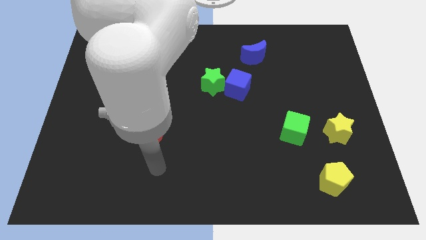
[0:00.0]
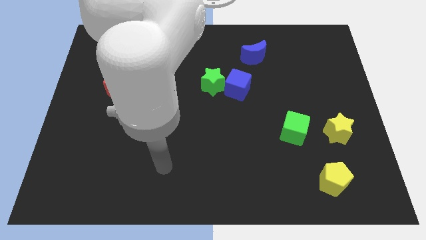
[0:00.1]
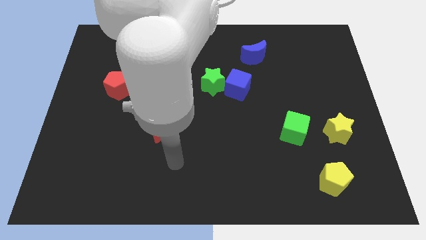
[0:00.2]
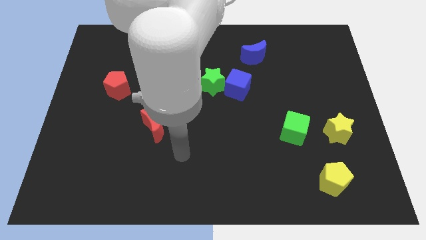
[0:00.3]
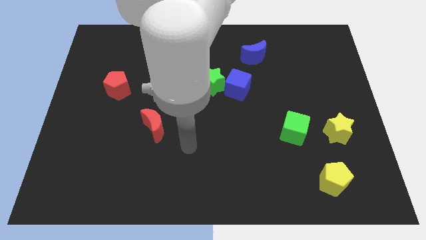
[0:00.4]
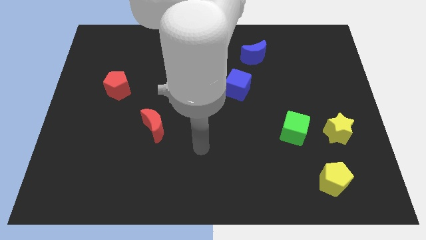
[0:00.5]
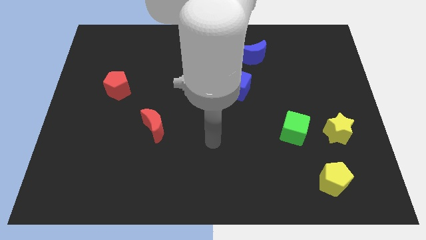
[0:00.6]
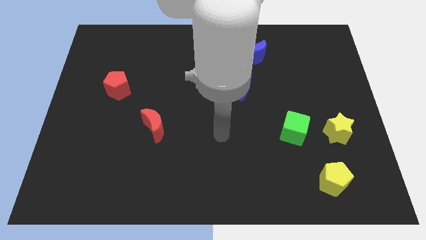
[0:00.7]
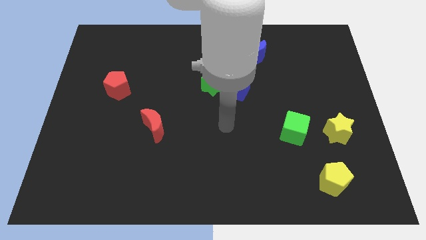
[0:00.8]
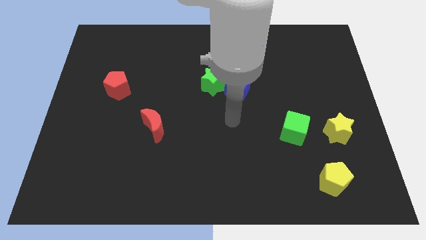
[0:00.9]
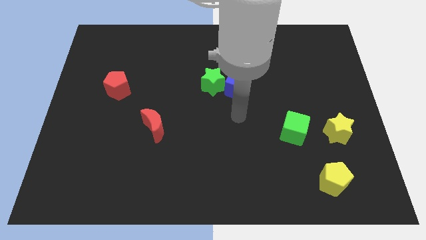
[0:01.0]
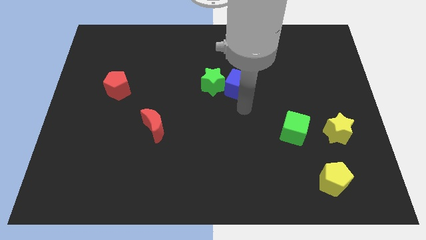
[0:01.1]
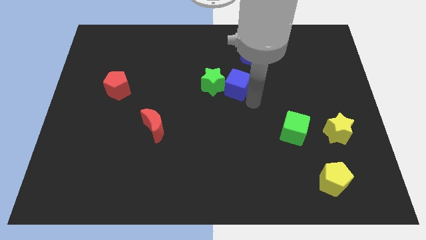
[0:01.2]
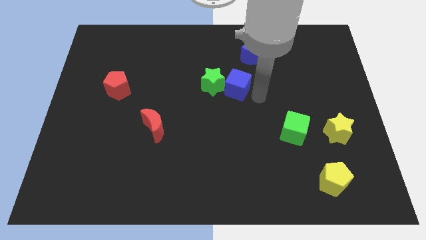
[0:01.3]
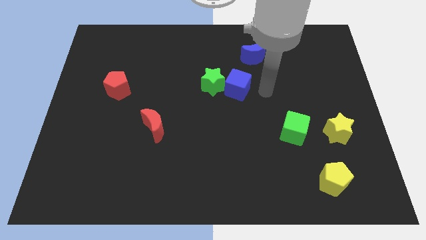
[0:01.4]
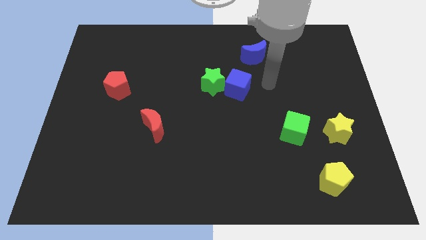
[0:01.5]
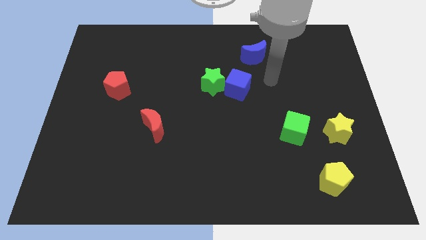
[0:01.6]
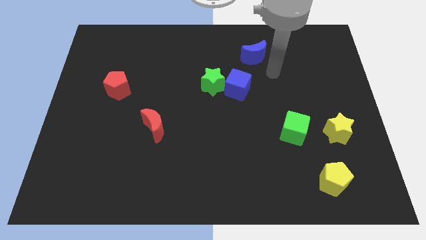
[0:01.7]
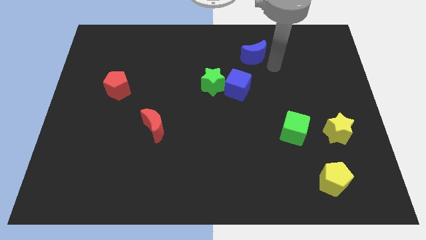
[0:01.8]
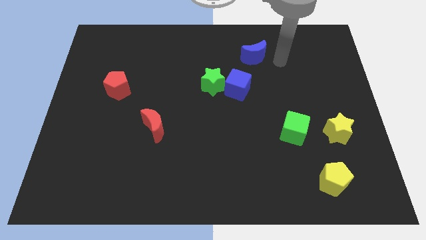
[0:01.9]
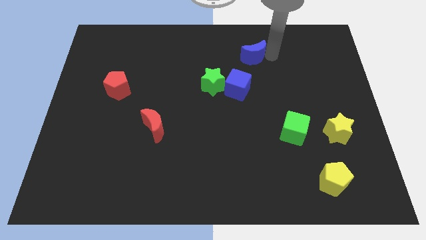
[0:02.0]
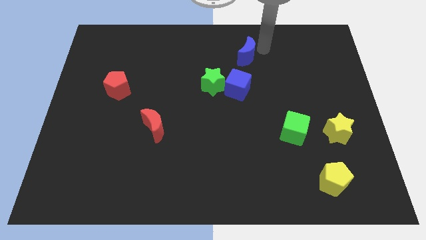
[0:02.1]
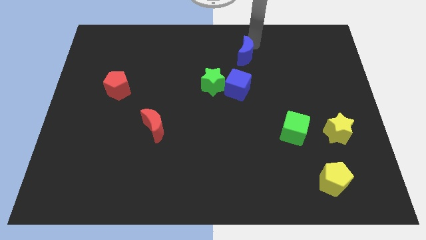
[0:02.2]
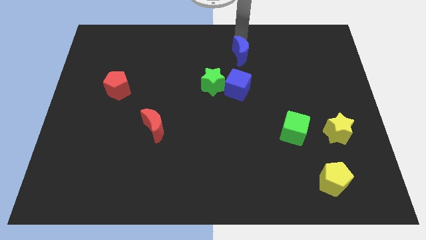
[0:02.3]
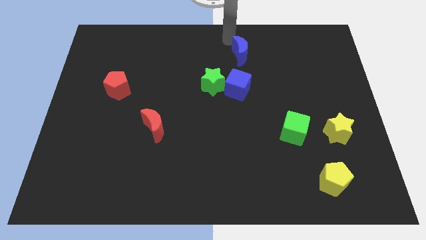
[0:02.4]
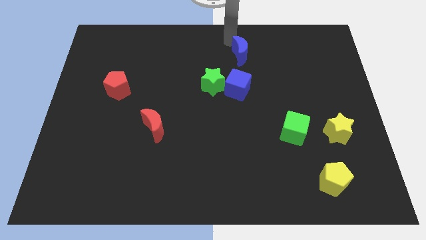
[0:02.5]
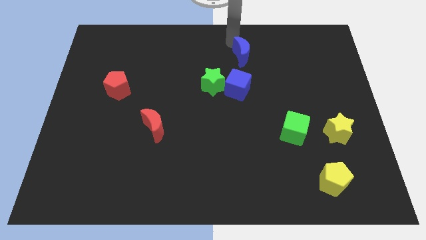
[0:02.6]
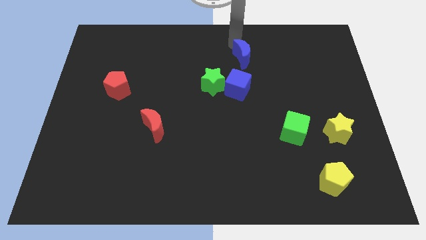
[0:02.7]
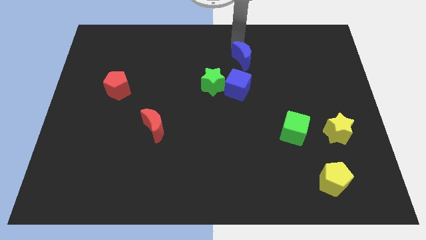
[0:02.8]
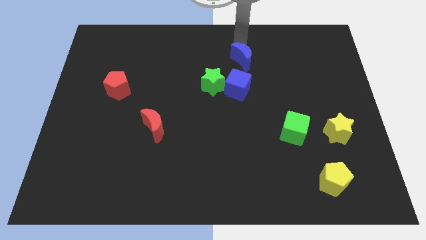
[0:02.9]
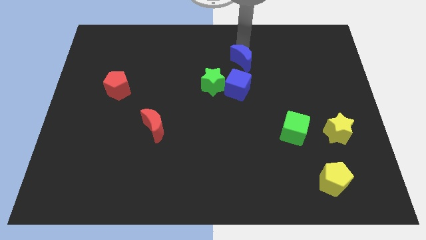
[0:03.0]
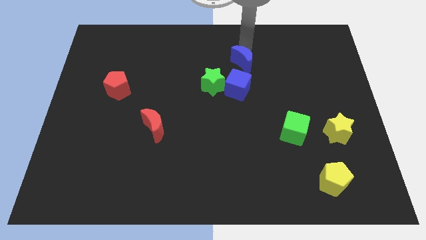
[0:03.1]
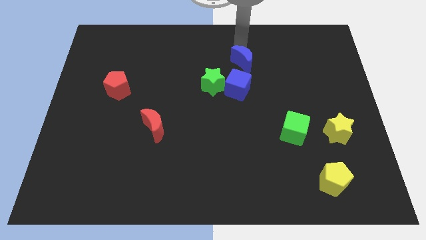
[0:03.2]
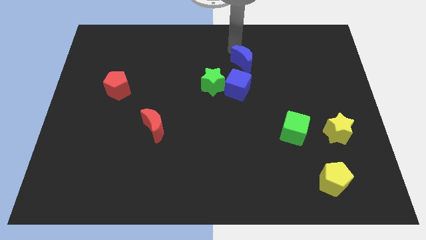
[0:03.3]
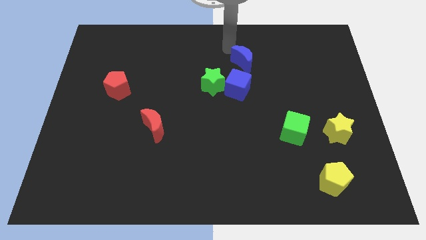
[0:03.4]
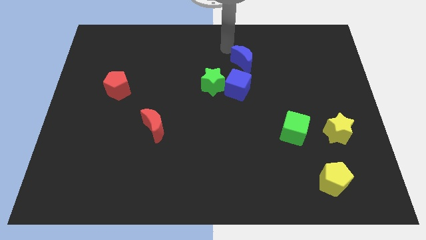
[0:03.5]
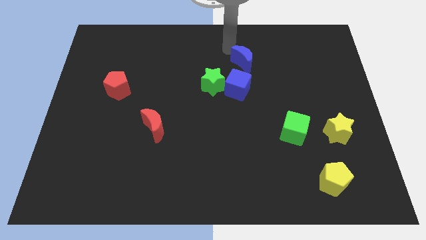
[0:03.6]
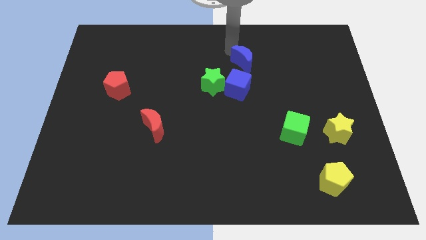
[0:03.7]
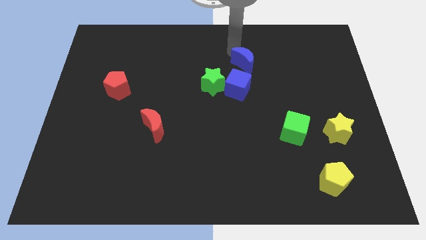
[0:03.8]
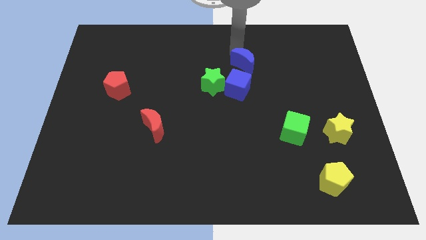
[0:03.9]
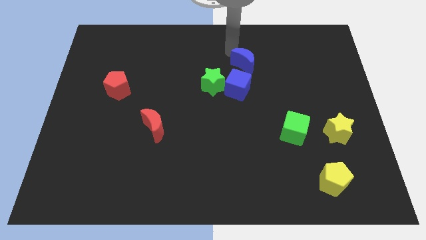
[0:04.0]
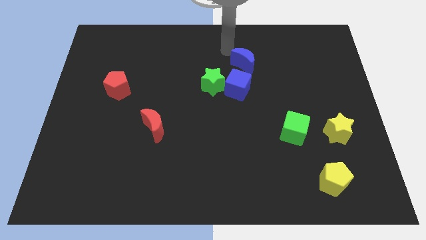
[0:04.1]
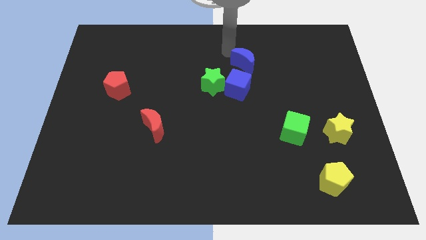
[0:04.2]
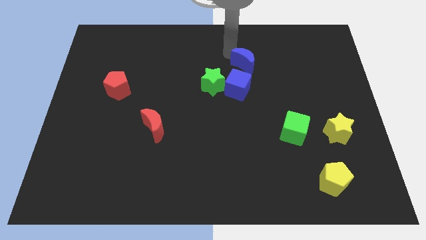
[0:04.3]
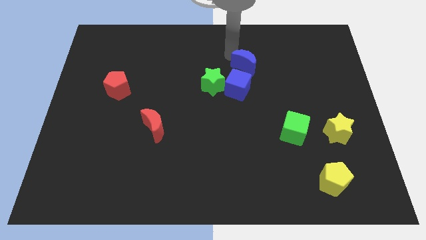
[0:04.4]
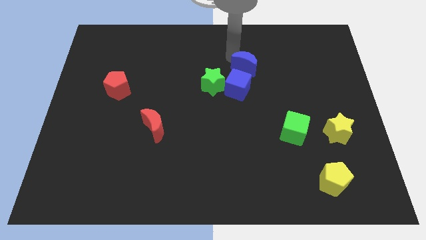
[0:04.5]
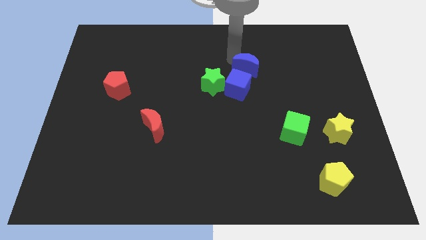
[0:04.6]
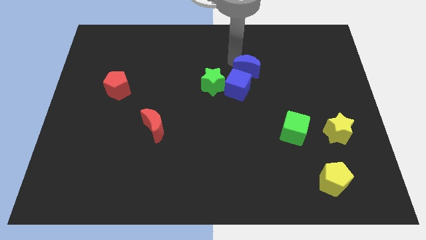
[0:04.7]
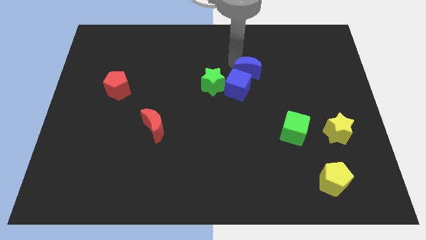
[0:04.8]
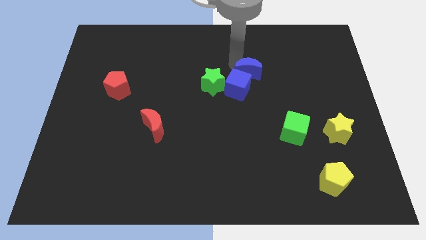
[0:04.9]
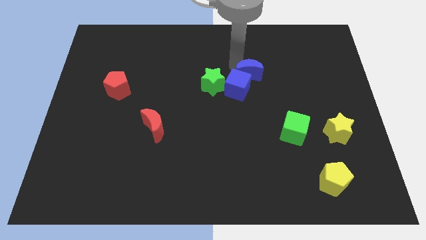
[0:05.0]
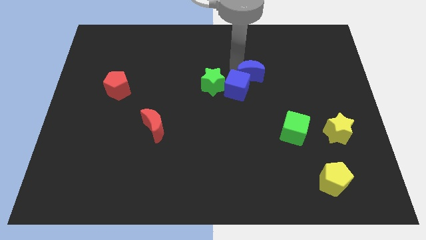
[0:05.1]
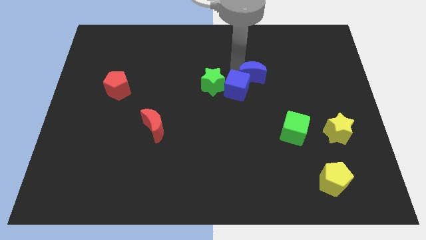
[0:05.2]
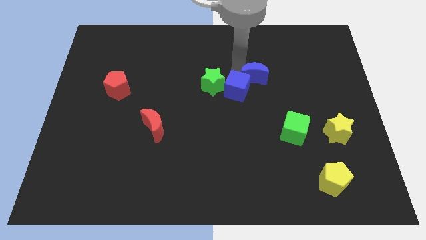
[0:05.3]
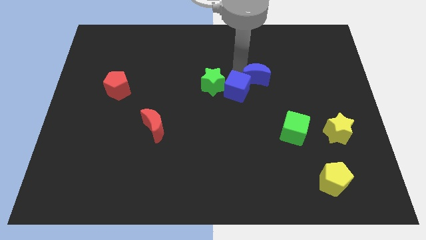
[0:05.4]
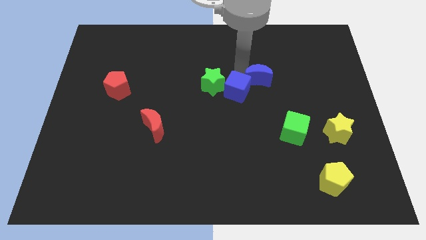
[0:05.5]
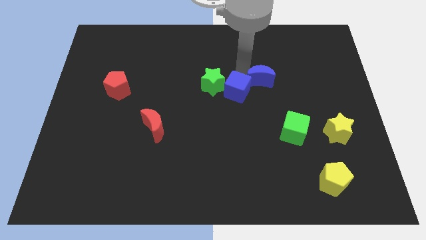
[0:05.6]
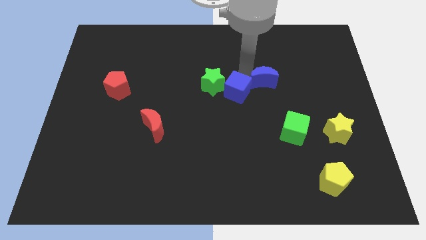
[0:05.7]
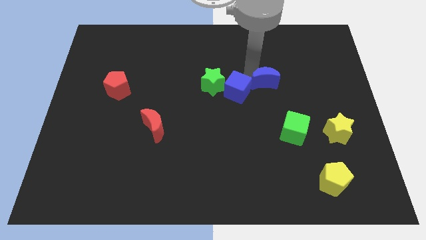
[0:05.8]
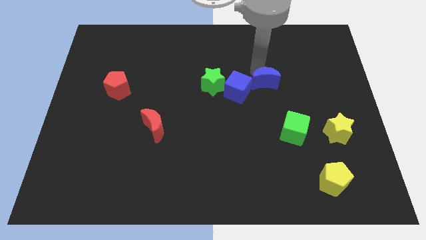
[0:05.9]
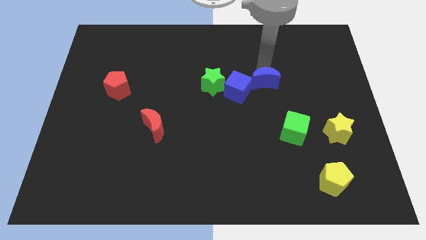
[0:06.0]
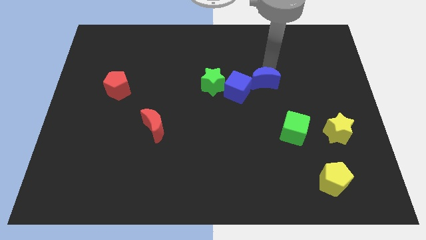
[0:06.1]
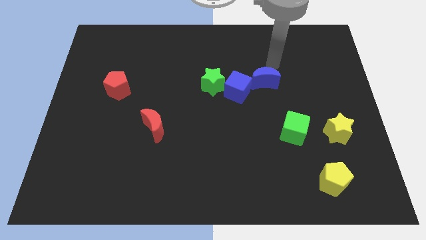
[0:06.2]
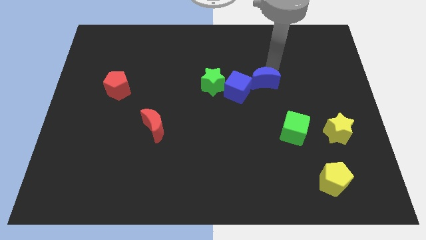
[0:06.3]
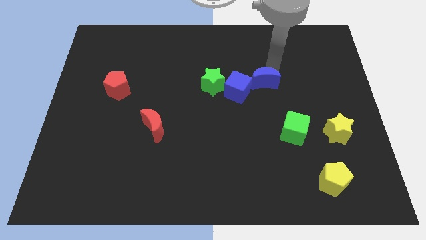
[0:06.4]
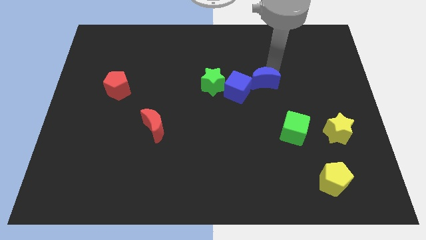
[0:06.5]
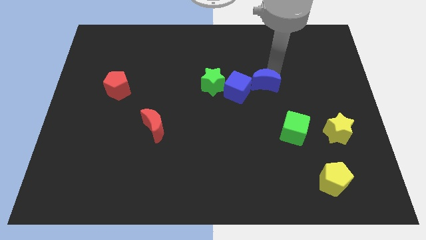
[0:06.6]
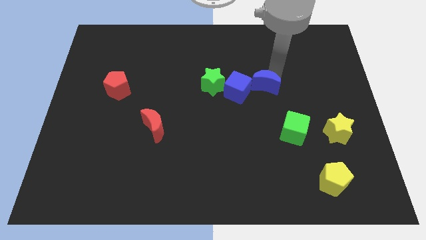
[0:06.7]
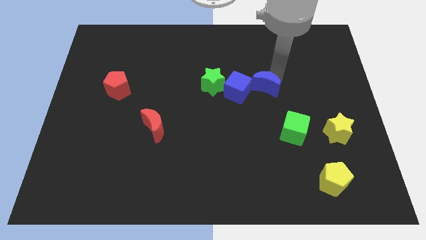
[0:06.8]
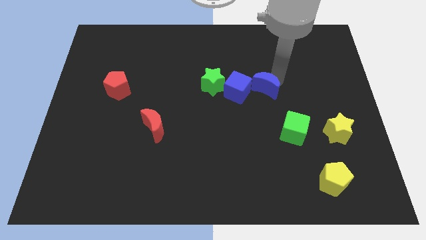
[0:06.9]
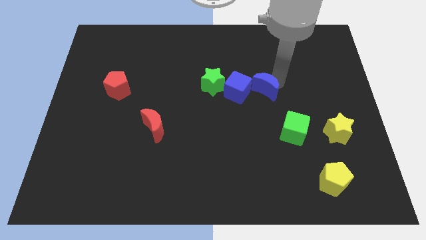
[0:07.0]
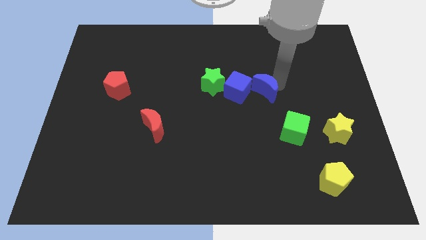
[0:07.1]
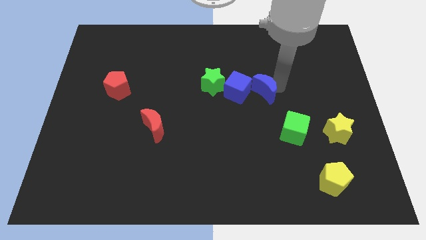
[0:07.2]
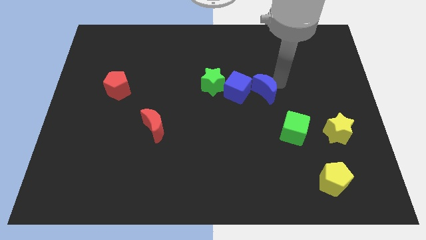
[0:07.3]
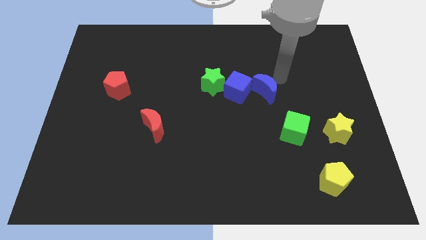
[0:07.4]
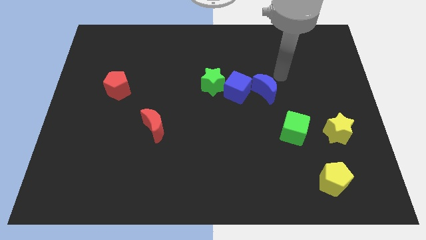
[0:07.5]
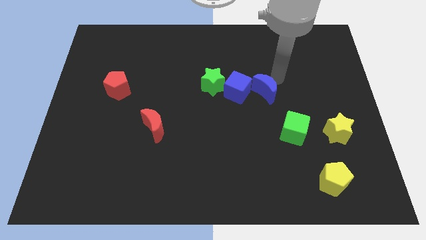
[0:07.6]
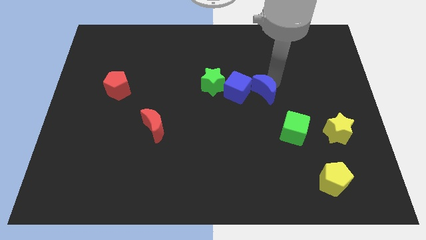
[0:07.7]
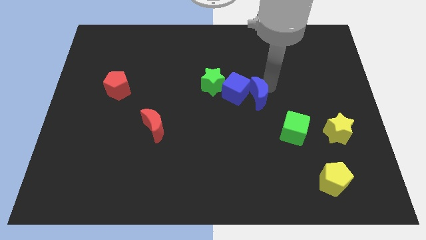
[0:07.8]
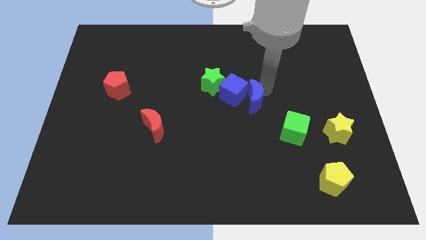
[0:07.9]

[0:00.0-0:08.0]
push the blue moon diagonally down and to the right of the green star

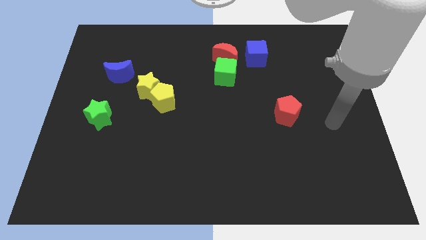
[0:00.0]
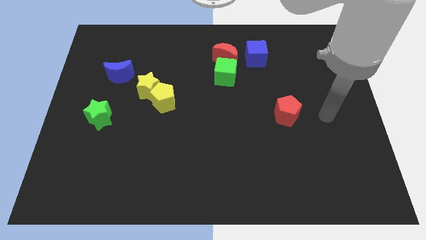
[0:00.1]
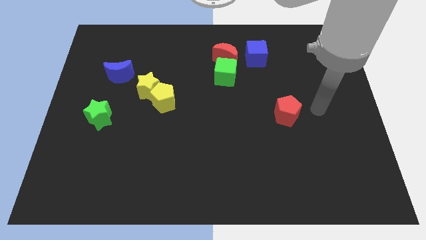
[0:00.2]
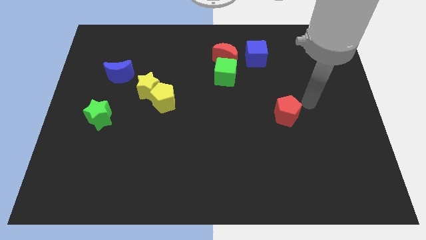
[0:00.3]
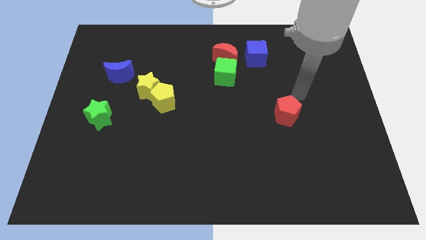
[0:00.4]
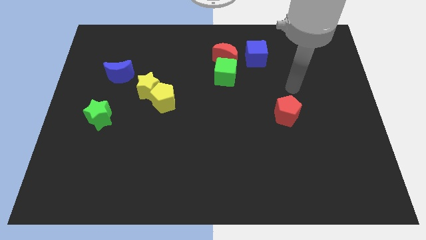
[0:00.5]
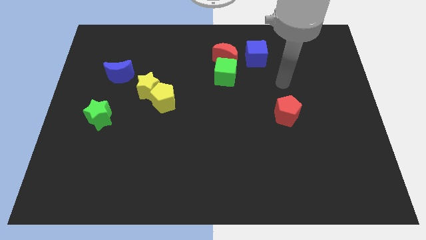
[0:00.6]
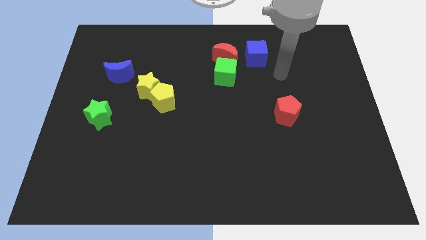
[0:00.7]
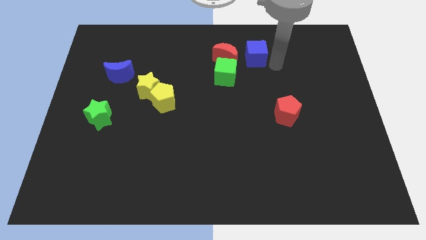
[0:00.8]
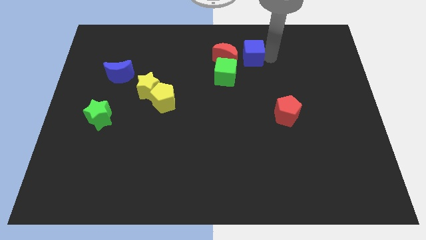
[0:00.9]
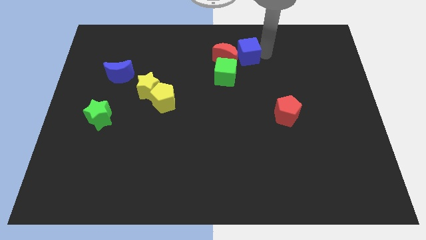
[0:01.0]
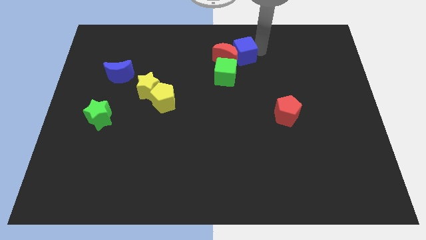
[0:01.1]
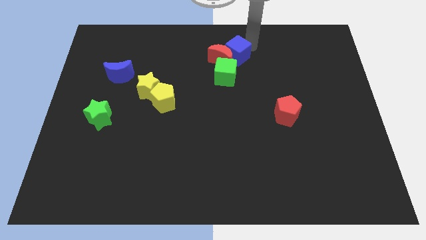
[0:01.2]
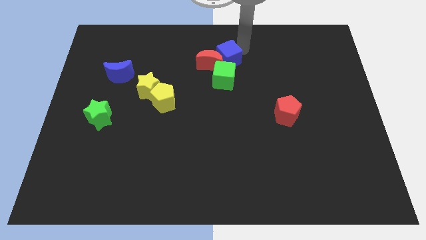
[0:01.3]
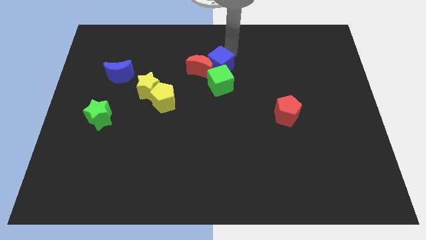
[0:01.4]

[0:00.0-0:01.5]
put the red moon just left of the green cube
